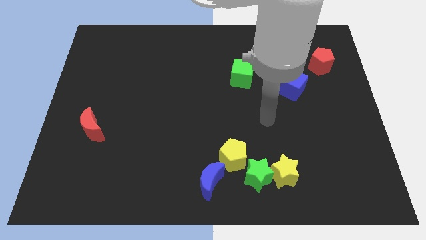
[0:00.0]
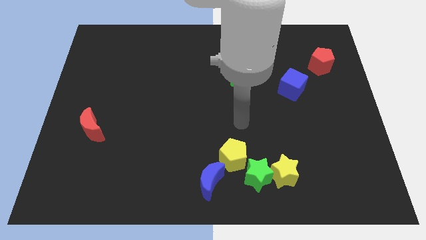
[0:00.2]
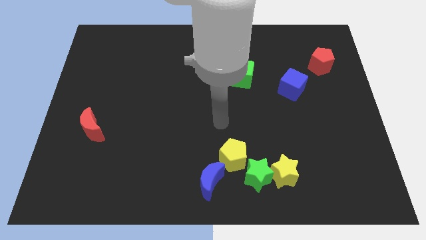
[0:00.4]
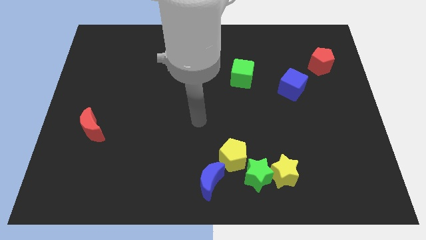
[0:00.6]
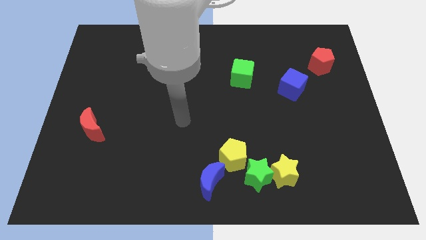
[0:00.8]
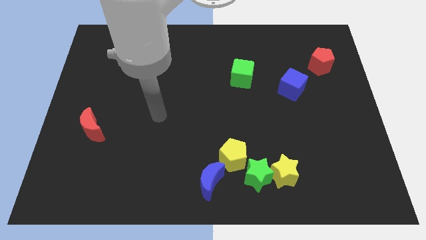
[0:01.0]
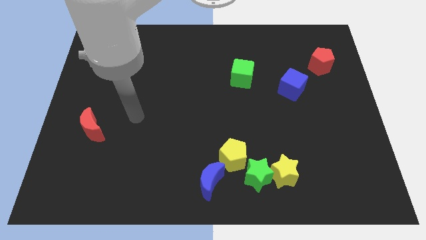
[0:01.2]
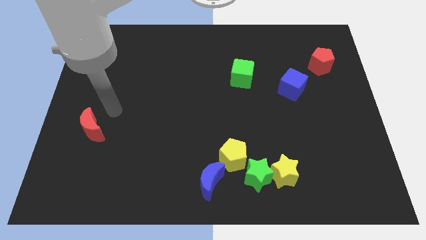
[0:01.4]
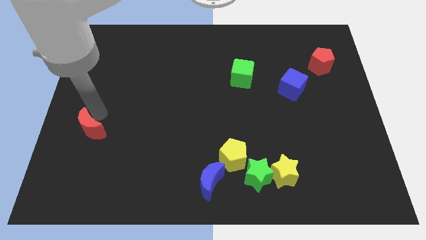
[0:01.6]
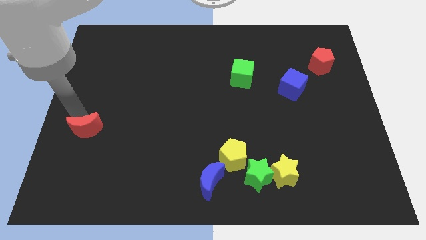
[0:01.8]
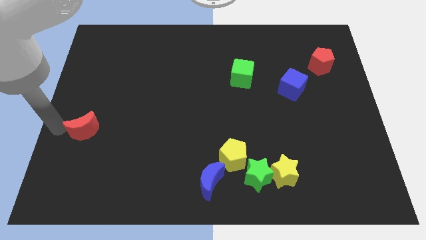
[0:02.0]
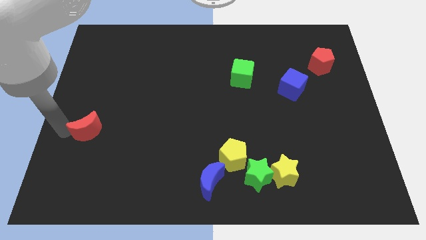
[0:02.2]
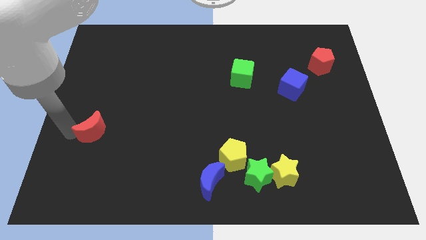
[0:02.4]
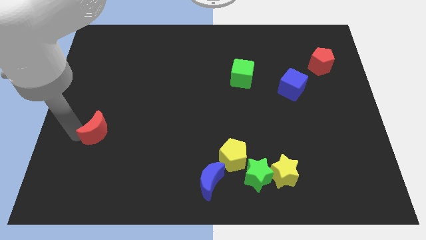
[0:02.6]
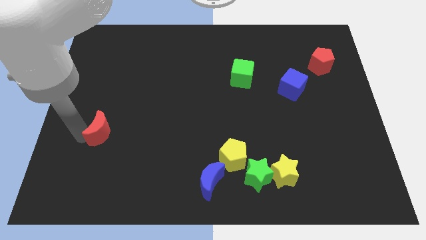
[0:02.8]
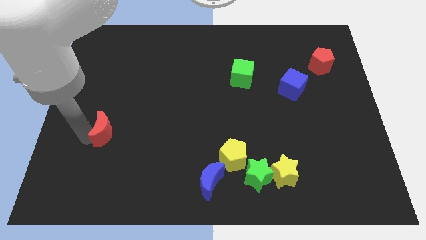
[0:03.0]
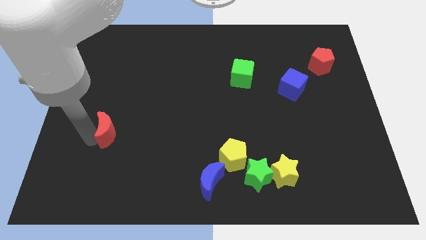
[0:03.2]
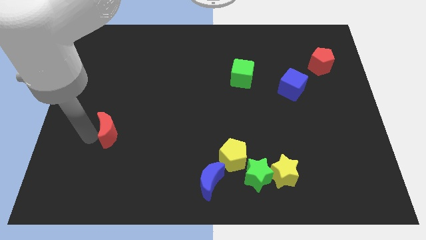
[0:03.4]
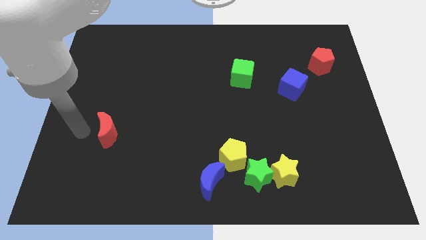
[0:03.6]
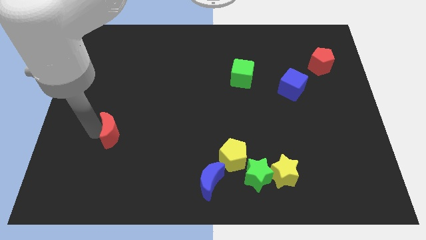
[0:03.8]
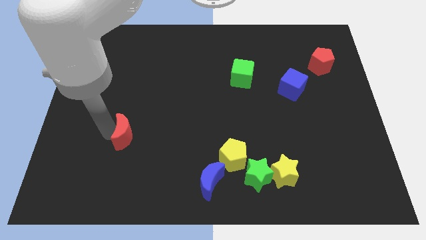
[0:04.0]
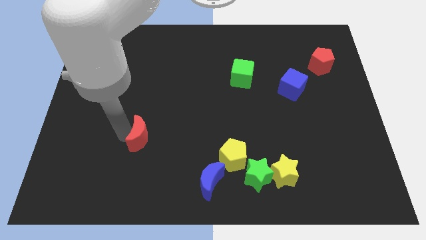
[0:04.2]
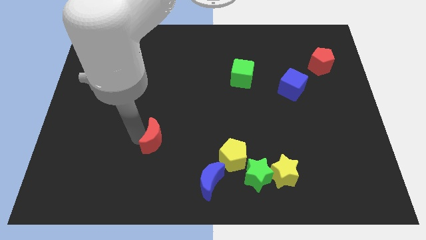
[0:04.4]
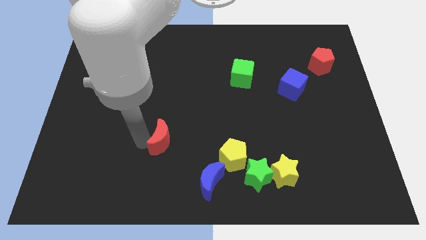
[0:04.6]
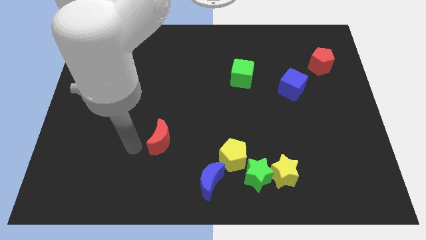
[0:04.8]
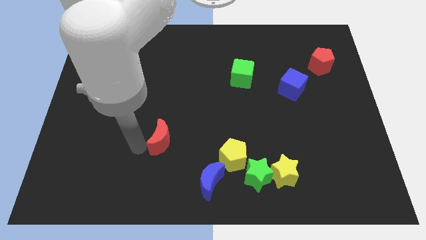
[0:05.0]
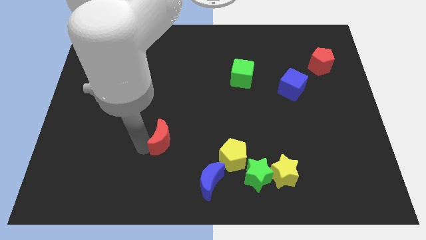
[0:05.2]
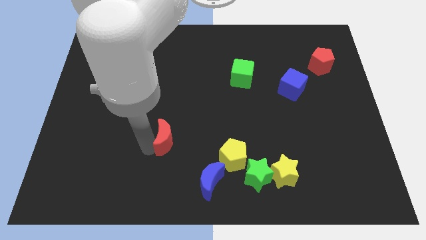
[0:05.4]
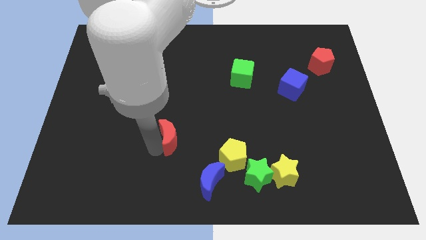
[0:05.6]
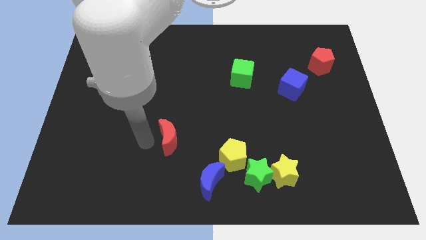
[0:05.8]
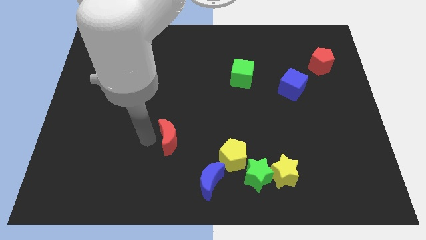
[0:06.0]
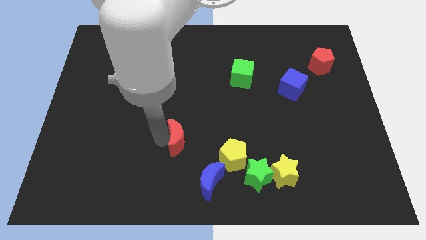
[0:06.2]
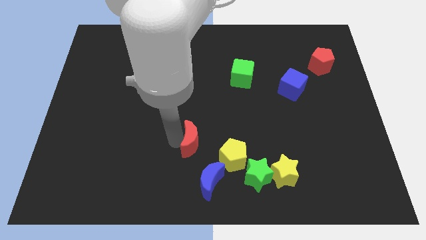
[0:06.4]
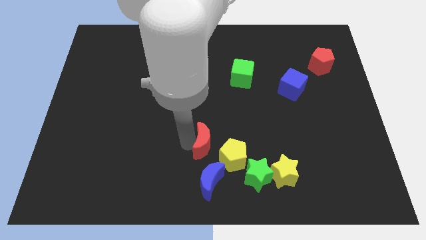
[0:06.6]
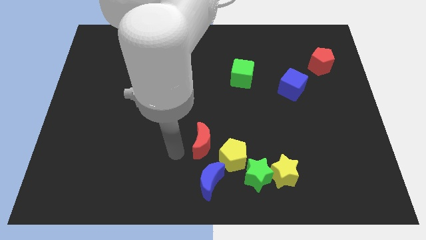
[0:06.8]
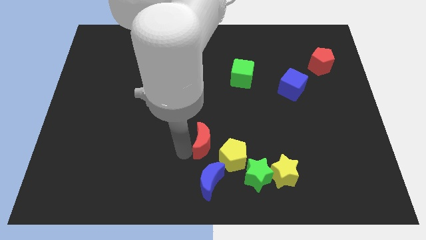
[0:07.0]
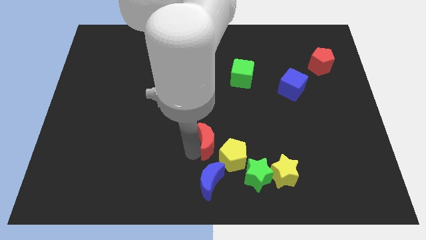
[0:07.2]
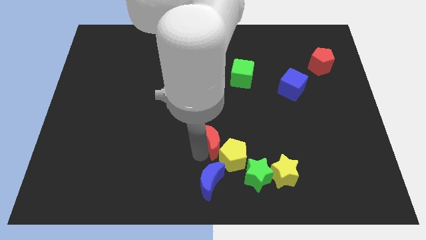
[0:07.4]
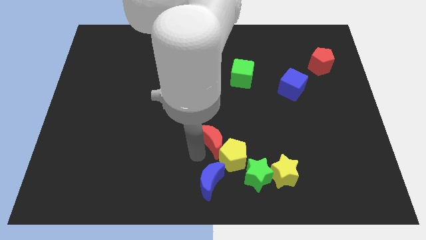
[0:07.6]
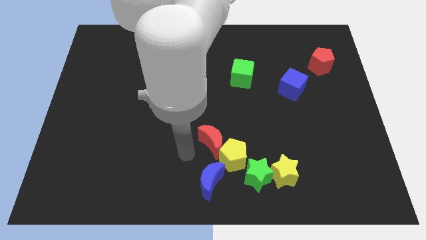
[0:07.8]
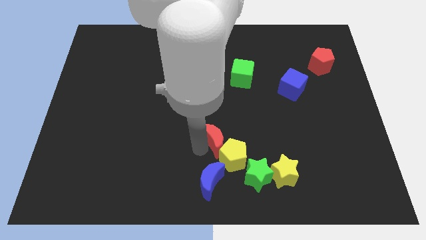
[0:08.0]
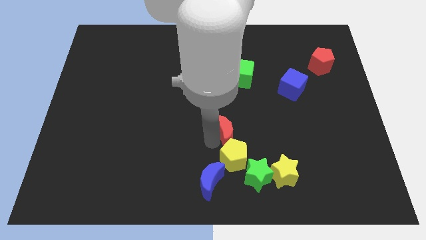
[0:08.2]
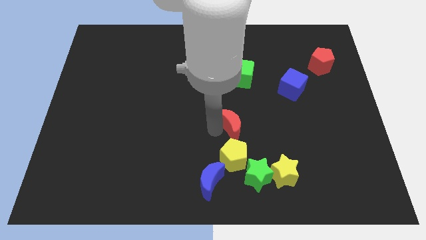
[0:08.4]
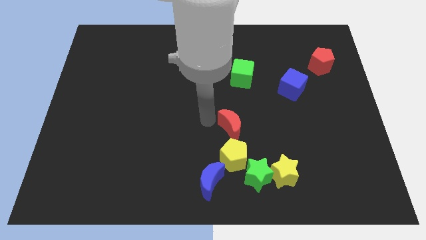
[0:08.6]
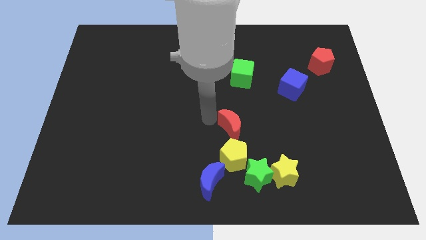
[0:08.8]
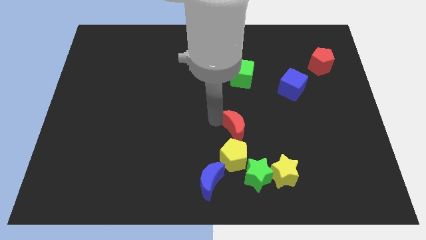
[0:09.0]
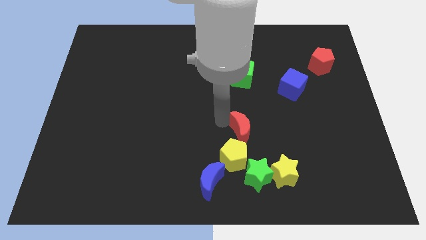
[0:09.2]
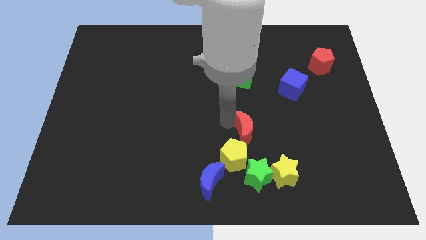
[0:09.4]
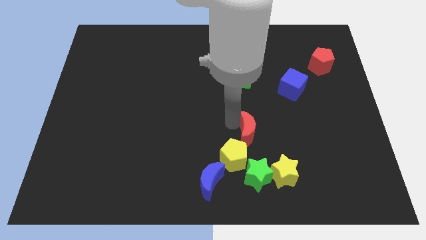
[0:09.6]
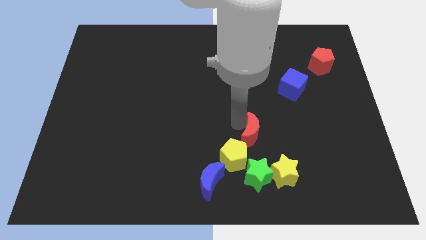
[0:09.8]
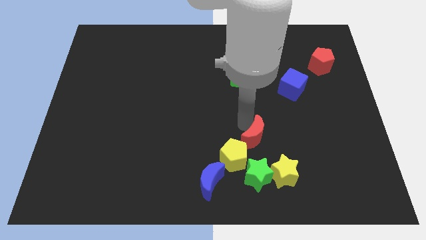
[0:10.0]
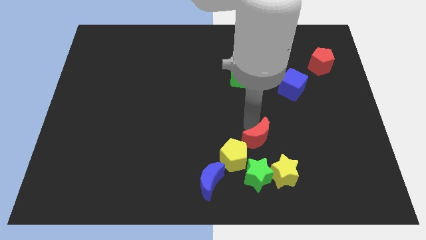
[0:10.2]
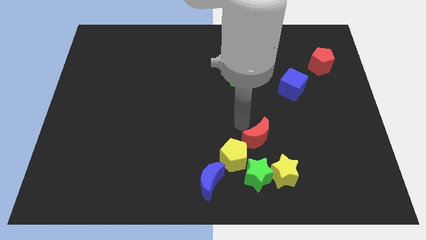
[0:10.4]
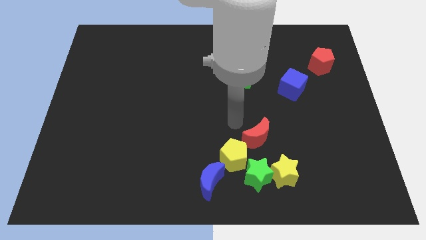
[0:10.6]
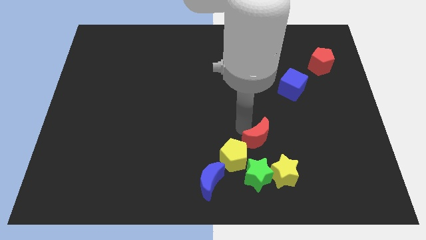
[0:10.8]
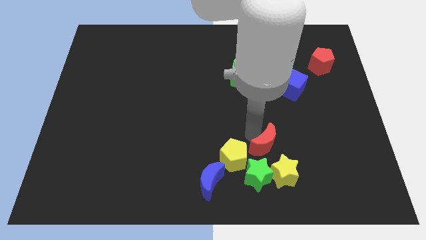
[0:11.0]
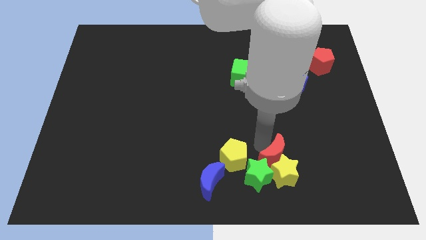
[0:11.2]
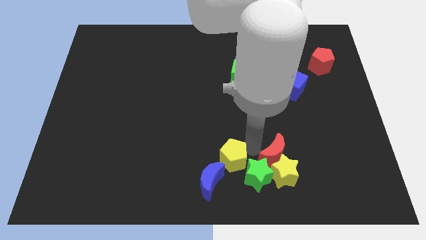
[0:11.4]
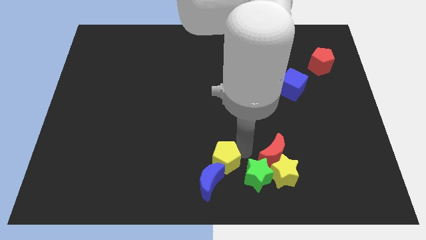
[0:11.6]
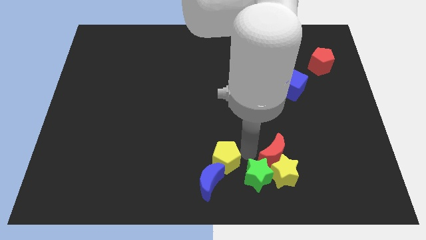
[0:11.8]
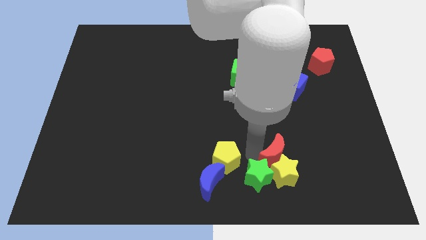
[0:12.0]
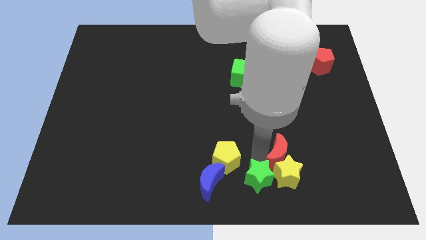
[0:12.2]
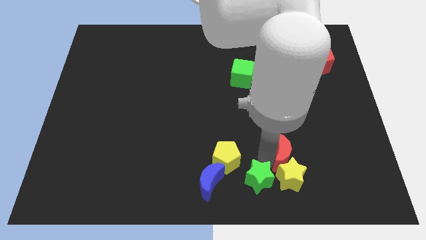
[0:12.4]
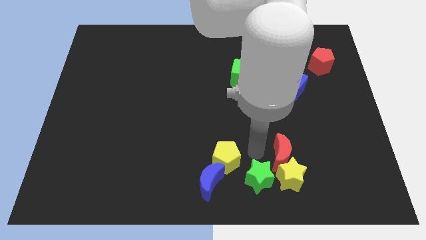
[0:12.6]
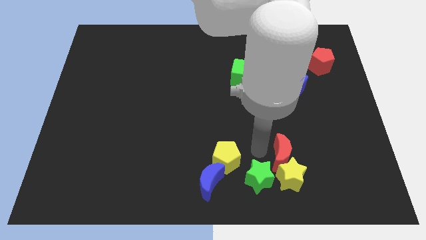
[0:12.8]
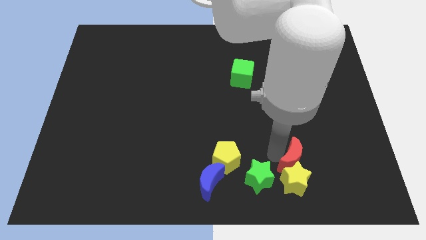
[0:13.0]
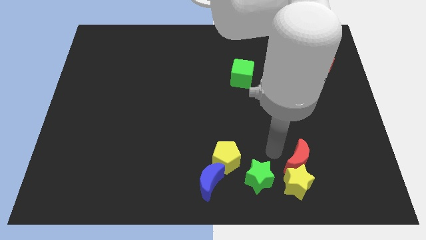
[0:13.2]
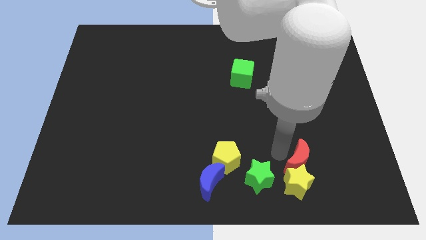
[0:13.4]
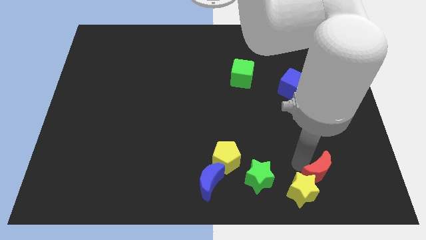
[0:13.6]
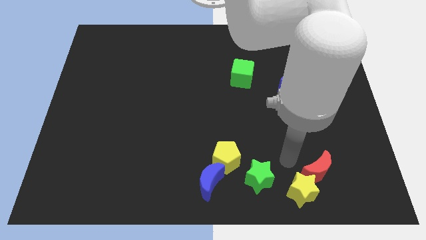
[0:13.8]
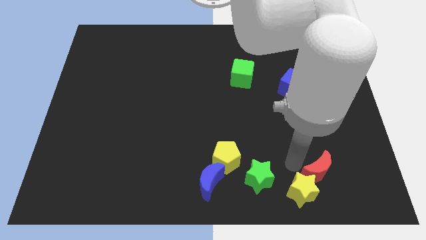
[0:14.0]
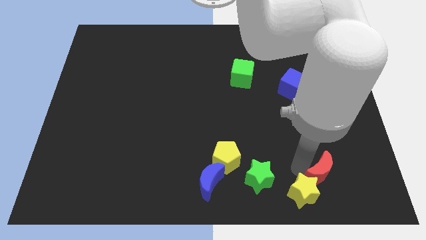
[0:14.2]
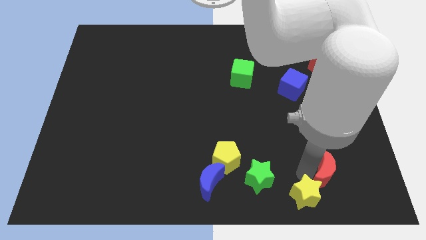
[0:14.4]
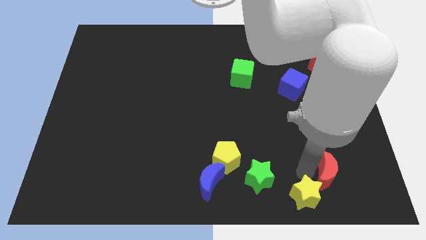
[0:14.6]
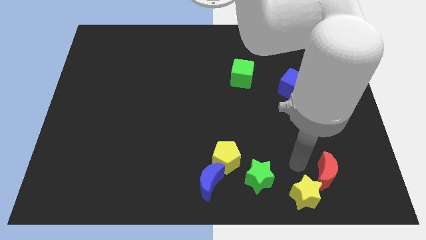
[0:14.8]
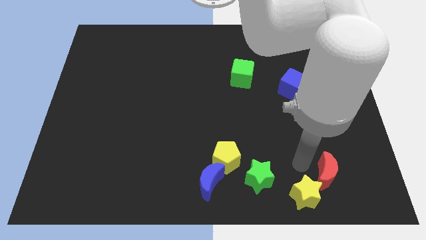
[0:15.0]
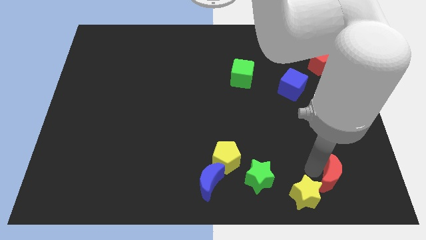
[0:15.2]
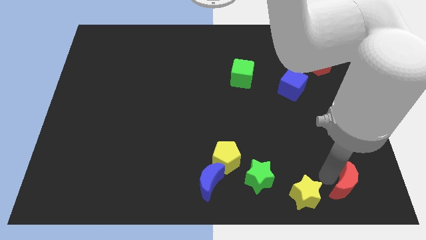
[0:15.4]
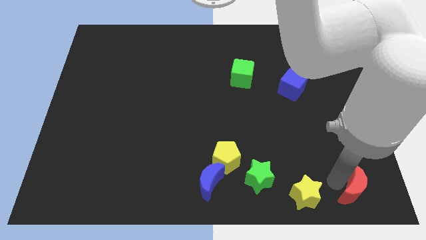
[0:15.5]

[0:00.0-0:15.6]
push the red moon to the lower right corner
